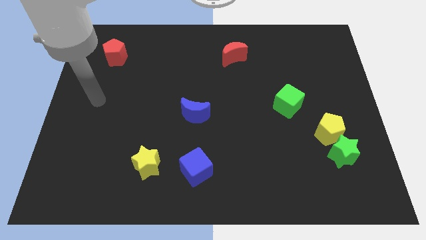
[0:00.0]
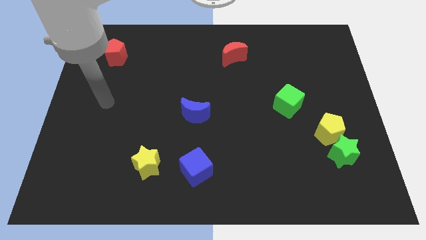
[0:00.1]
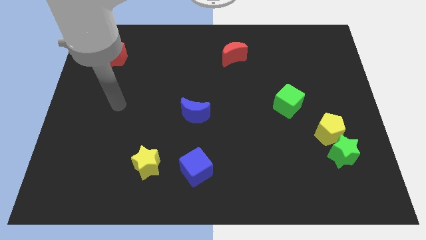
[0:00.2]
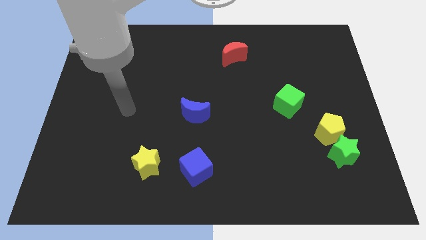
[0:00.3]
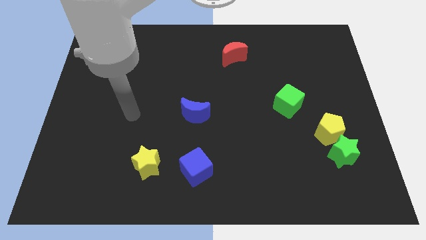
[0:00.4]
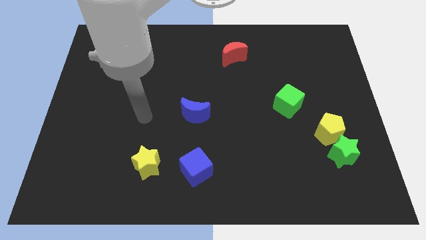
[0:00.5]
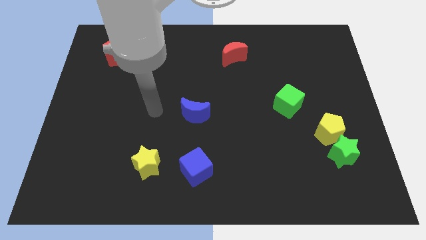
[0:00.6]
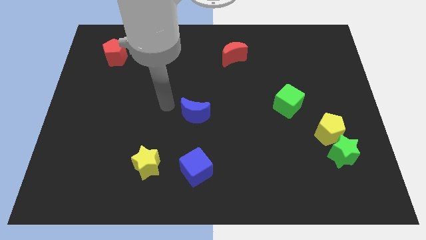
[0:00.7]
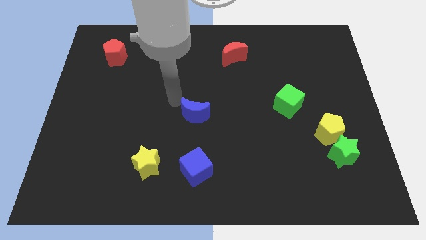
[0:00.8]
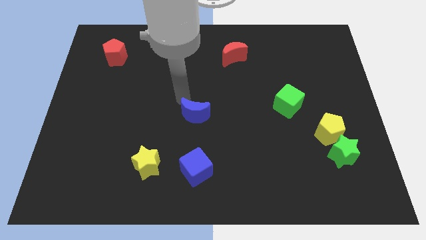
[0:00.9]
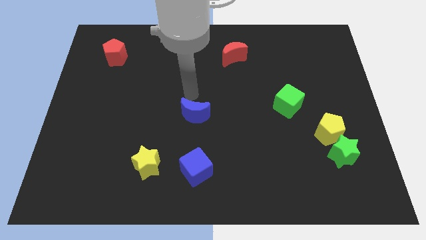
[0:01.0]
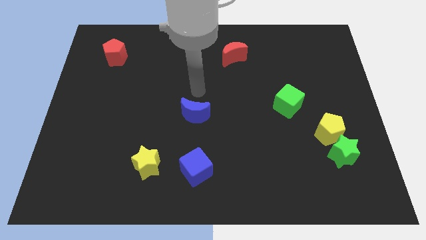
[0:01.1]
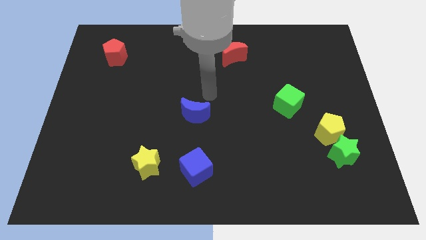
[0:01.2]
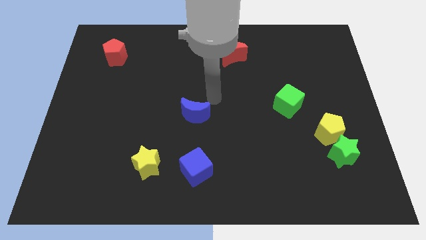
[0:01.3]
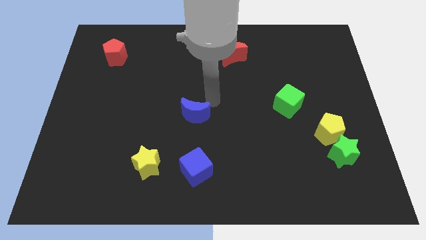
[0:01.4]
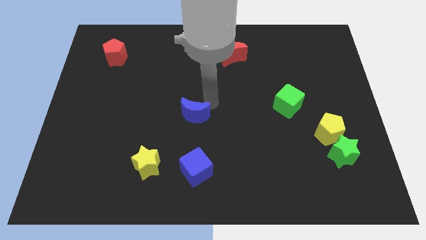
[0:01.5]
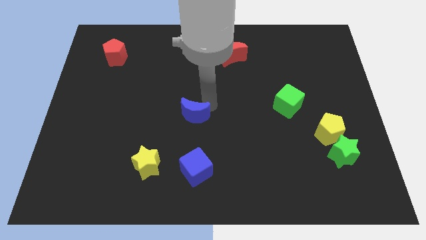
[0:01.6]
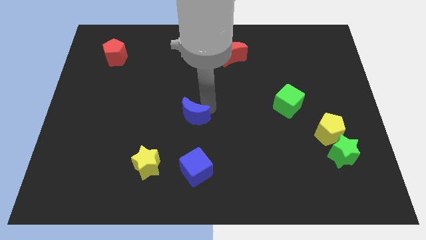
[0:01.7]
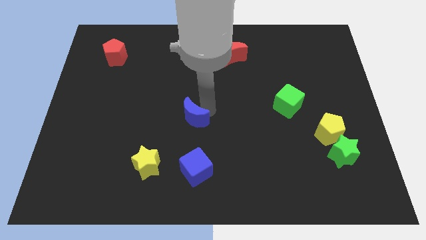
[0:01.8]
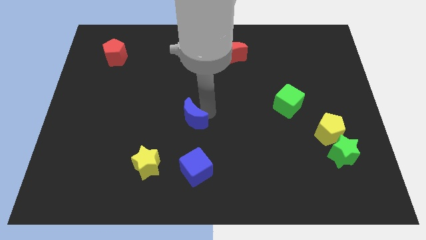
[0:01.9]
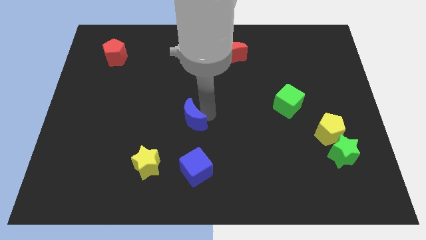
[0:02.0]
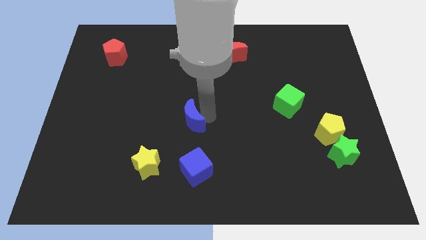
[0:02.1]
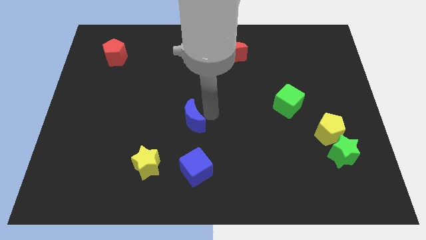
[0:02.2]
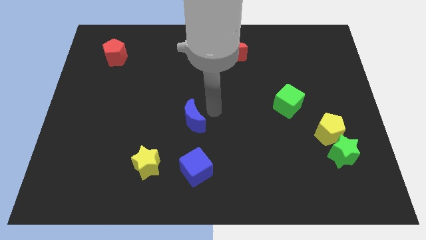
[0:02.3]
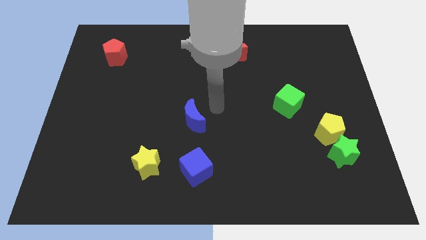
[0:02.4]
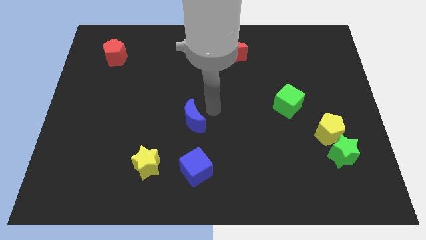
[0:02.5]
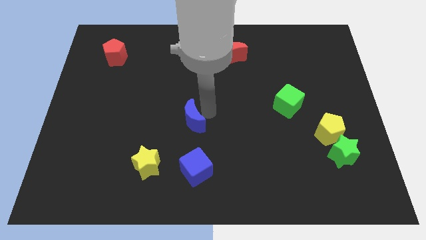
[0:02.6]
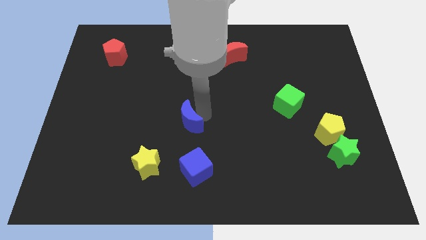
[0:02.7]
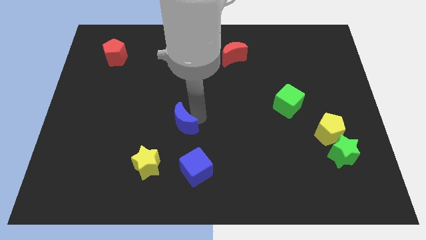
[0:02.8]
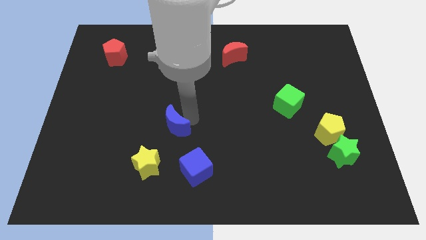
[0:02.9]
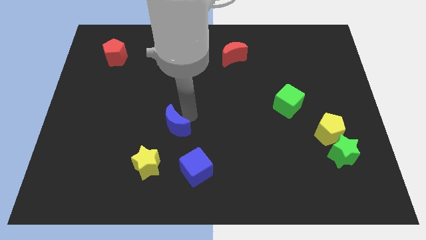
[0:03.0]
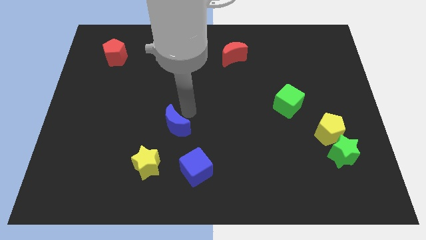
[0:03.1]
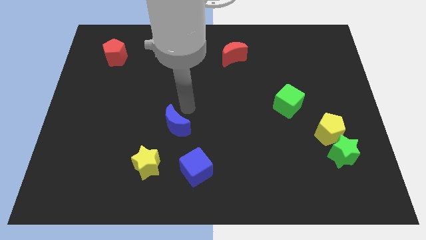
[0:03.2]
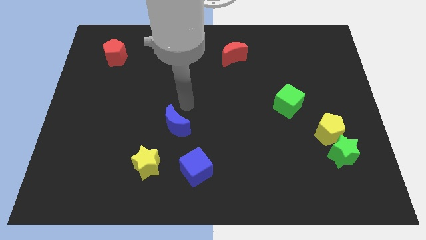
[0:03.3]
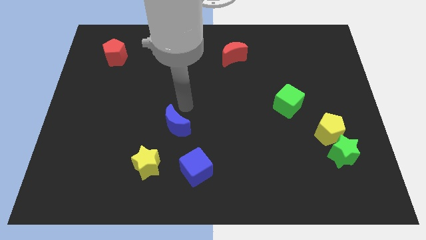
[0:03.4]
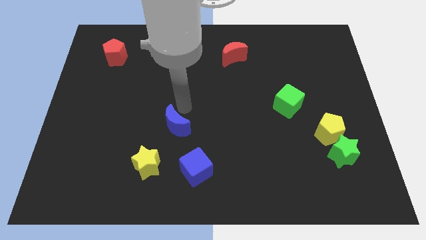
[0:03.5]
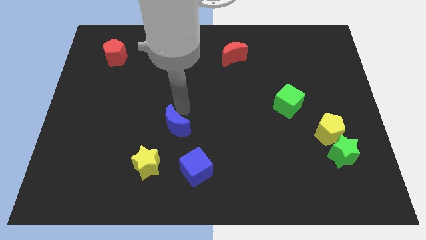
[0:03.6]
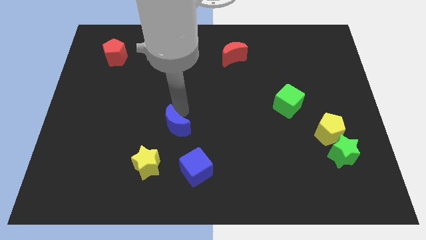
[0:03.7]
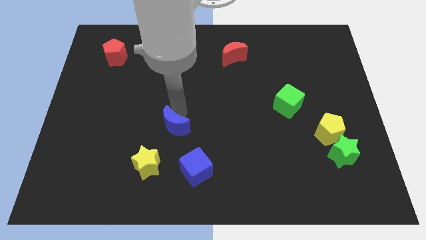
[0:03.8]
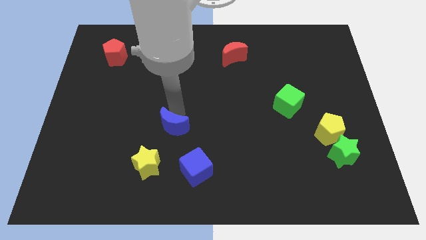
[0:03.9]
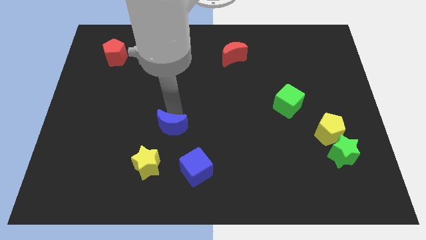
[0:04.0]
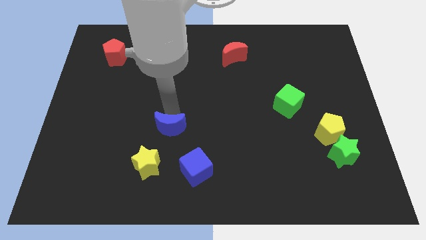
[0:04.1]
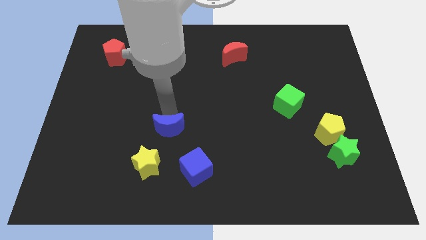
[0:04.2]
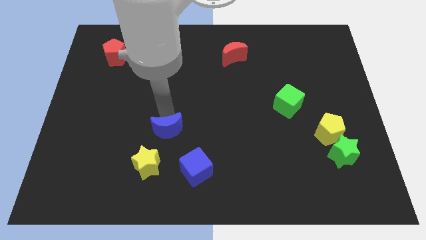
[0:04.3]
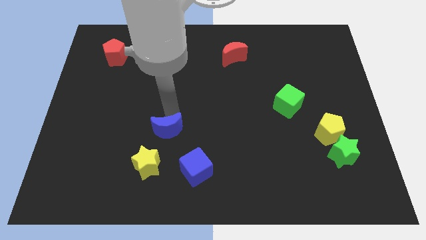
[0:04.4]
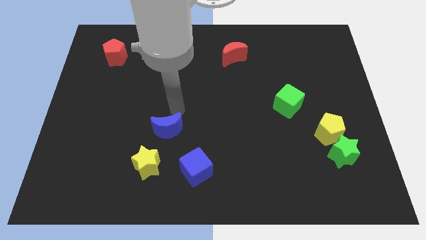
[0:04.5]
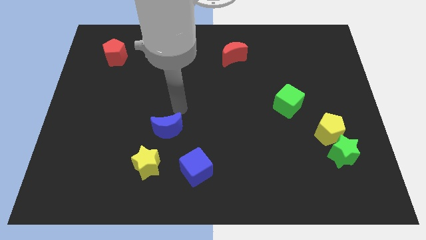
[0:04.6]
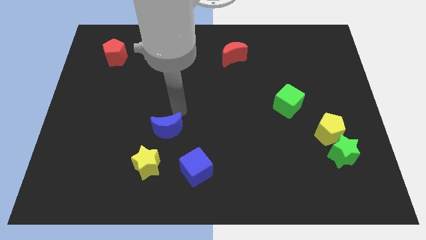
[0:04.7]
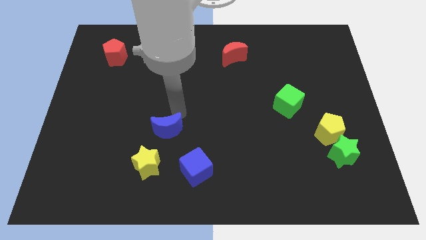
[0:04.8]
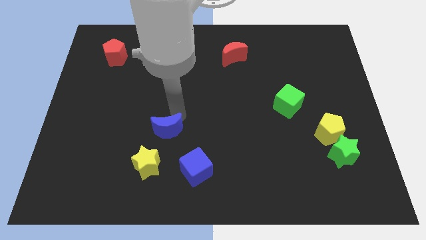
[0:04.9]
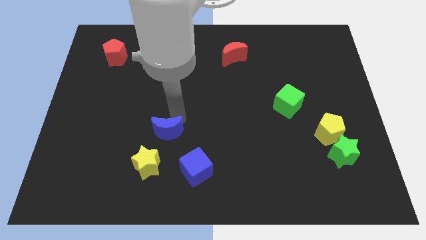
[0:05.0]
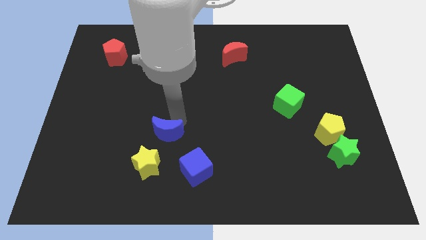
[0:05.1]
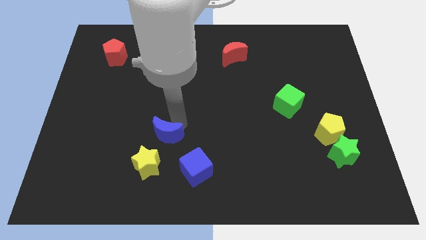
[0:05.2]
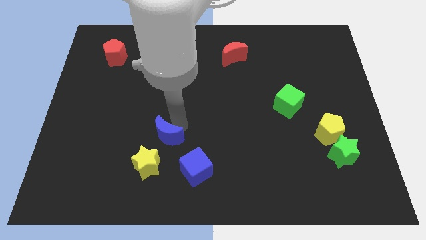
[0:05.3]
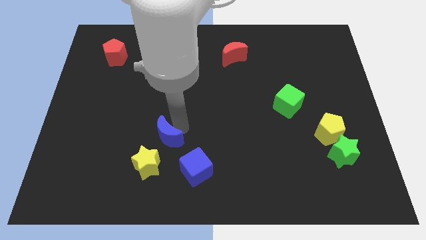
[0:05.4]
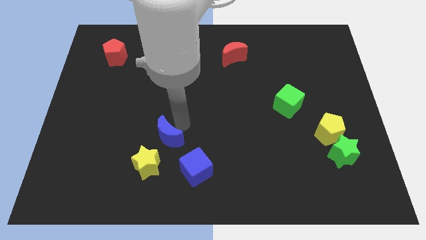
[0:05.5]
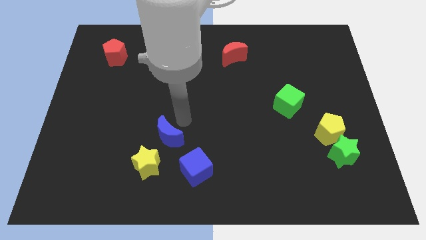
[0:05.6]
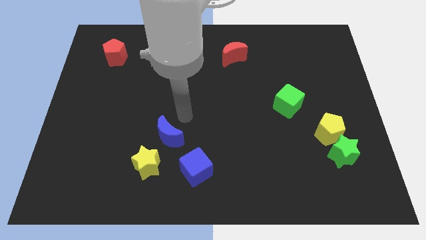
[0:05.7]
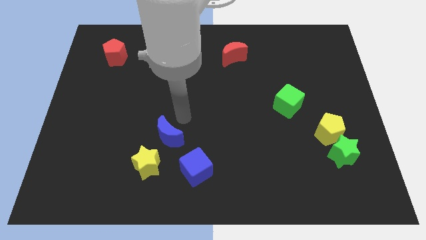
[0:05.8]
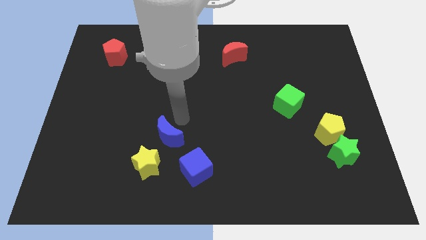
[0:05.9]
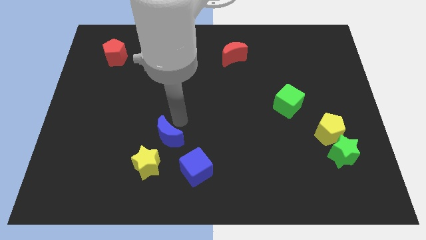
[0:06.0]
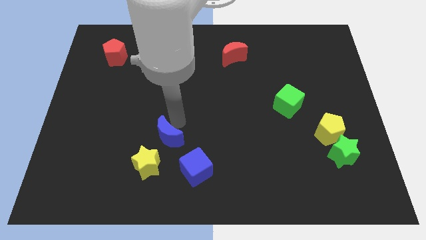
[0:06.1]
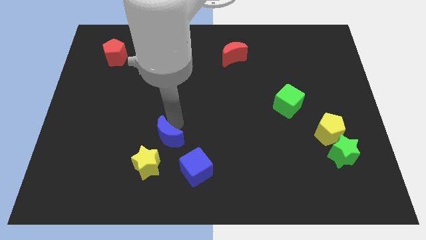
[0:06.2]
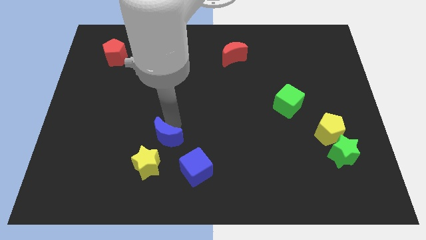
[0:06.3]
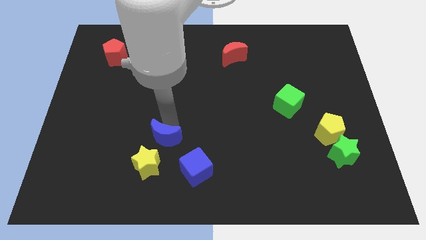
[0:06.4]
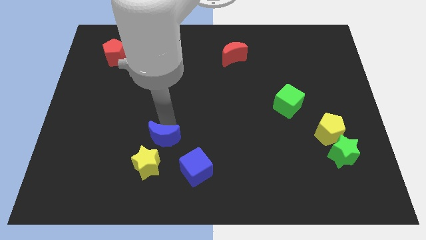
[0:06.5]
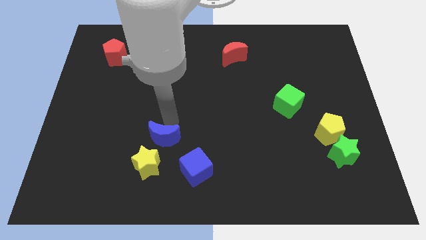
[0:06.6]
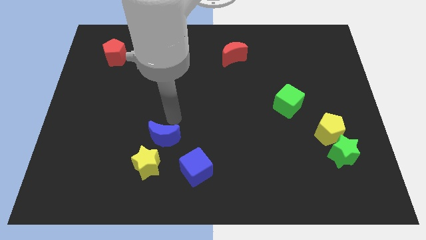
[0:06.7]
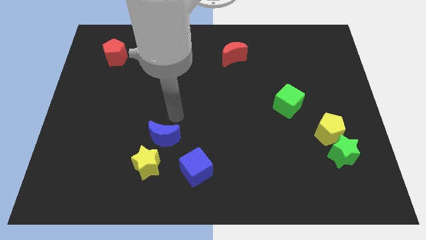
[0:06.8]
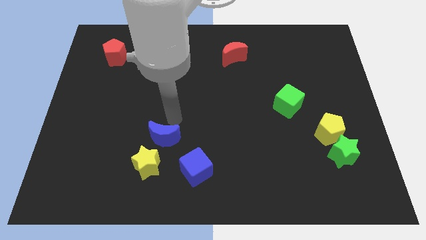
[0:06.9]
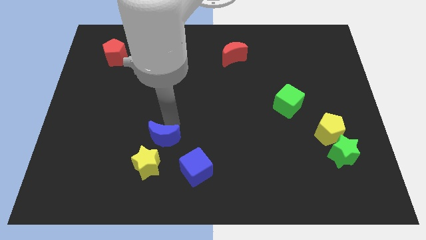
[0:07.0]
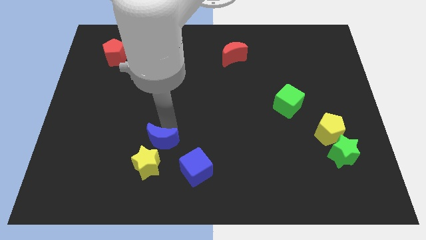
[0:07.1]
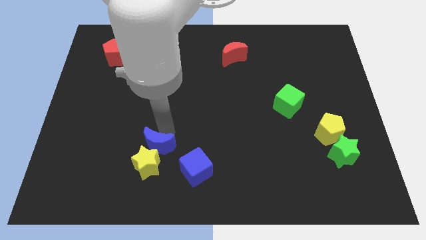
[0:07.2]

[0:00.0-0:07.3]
slide the blue moon to the yellow star

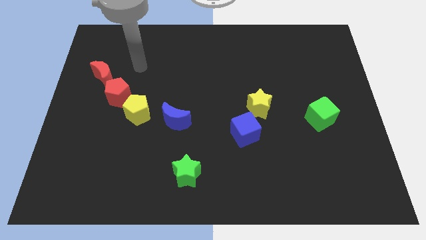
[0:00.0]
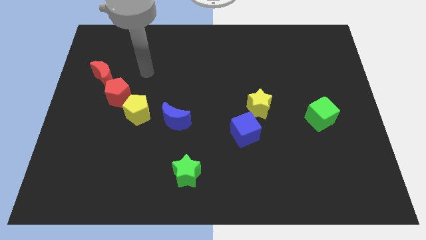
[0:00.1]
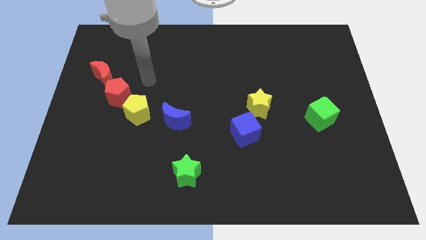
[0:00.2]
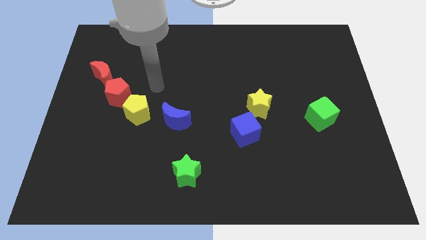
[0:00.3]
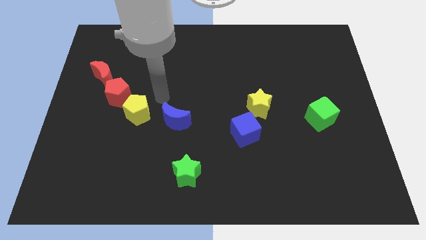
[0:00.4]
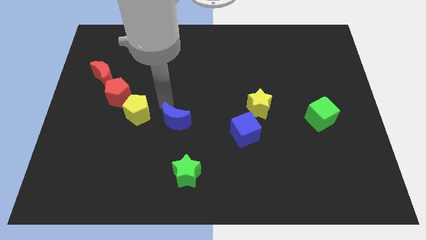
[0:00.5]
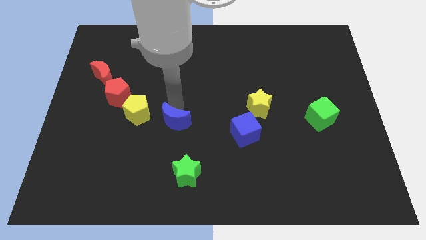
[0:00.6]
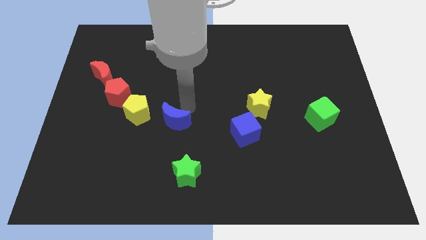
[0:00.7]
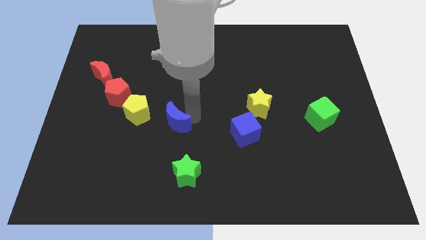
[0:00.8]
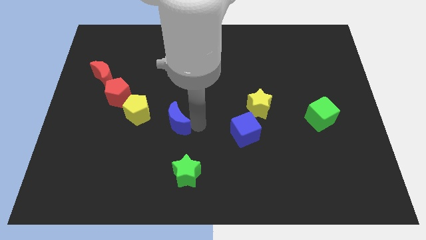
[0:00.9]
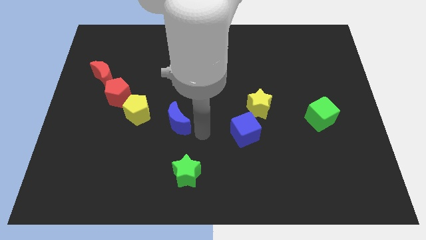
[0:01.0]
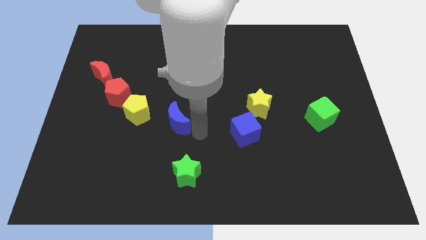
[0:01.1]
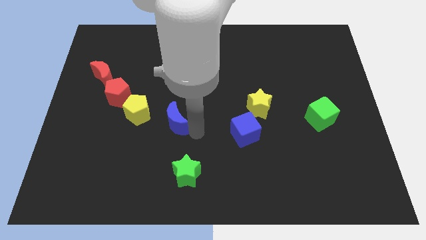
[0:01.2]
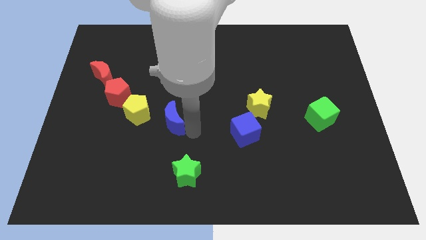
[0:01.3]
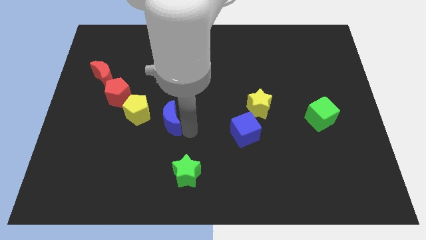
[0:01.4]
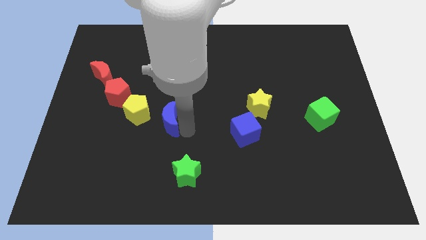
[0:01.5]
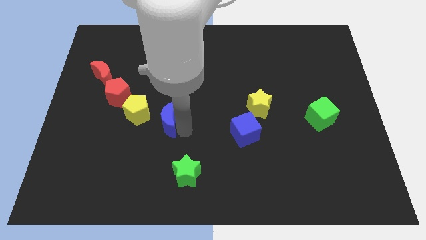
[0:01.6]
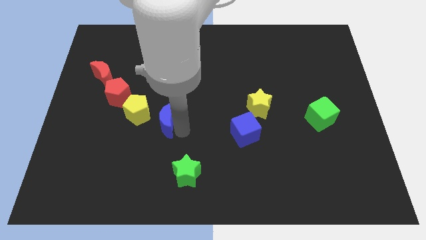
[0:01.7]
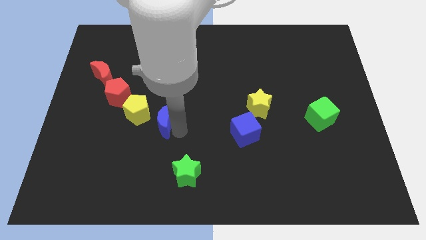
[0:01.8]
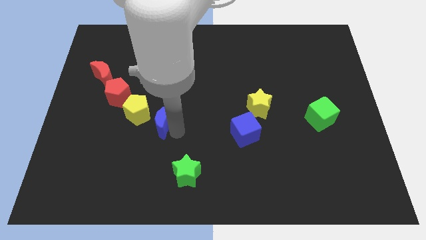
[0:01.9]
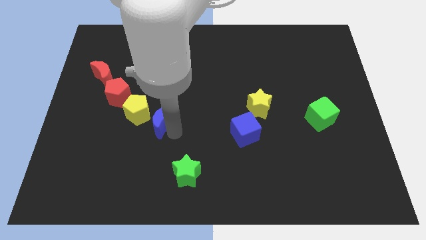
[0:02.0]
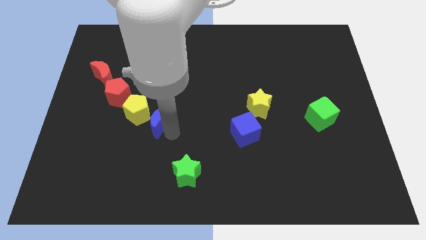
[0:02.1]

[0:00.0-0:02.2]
slide the blue moon next to the yellow pentagon
